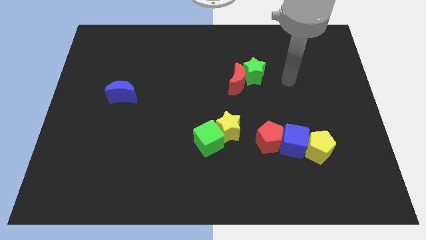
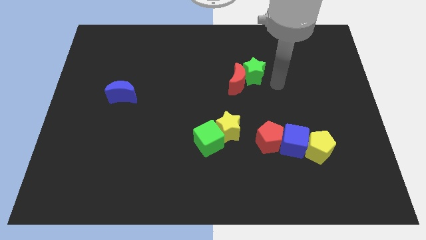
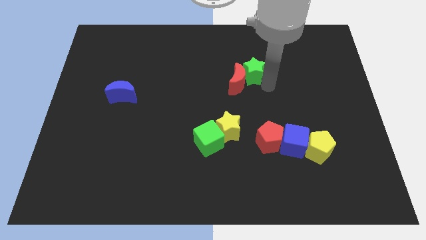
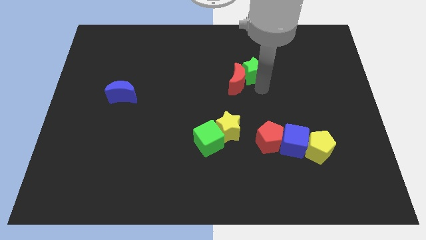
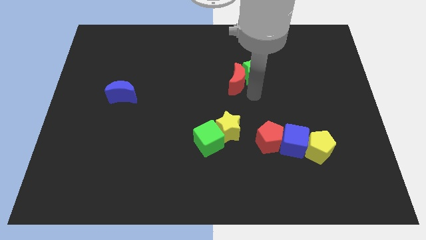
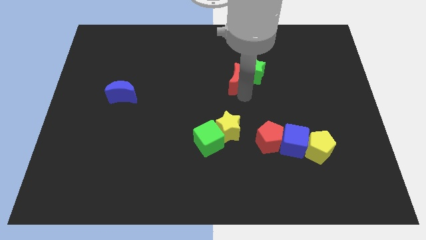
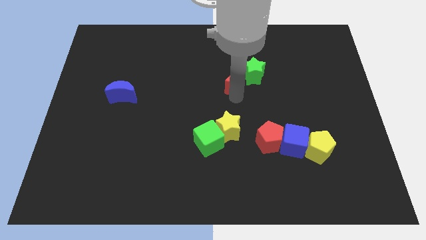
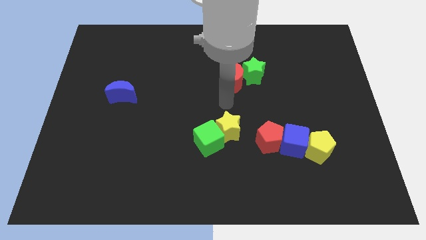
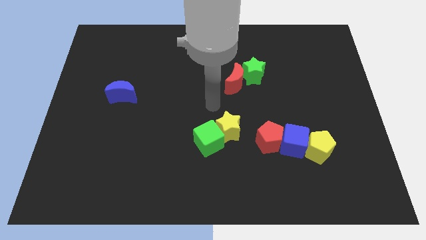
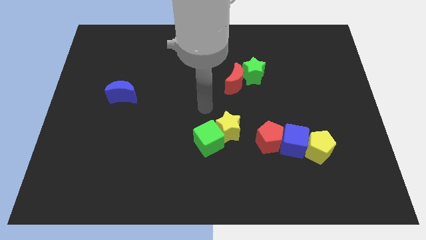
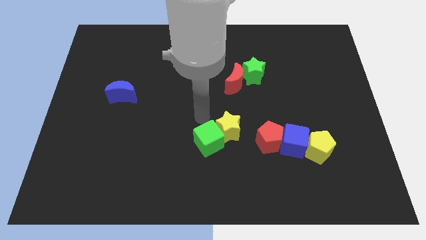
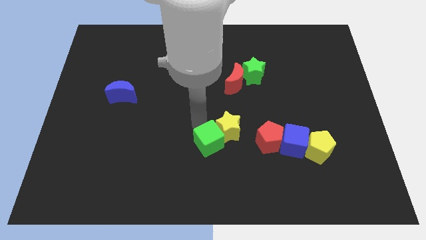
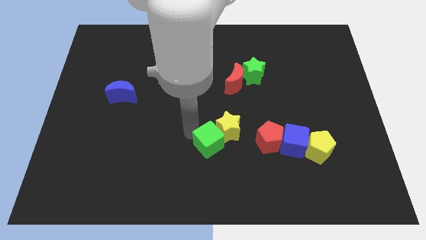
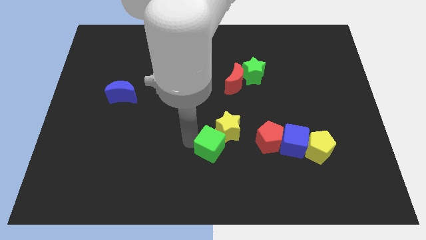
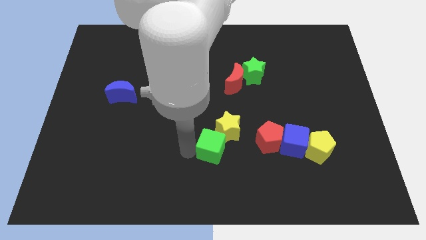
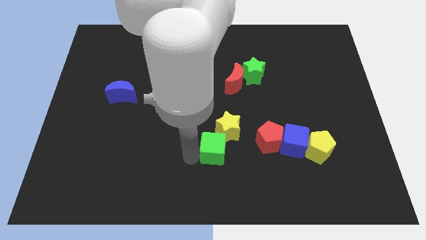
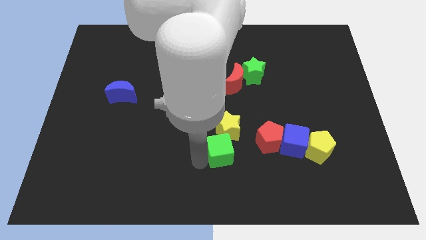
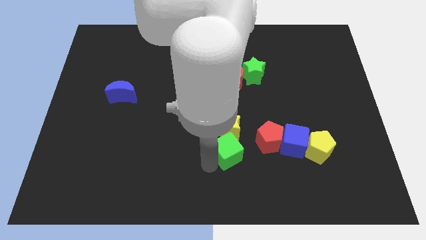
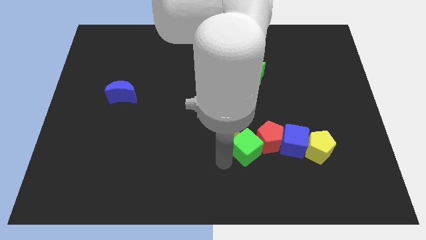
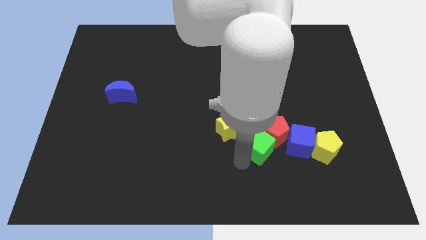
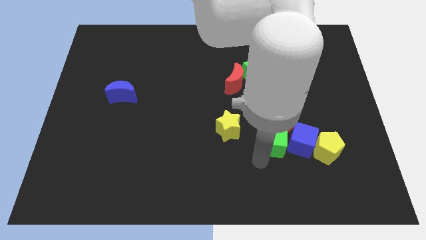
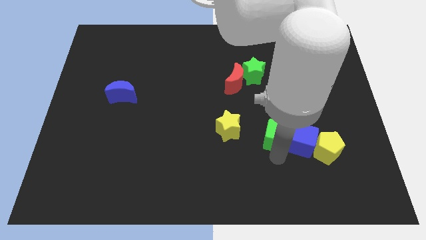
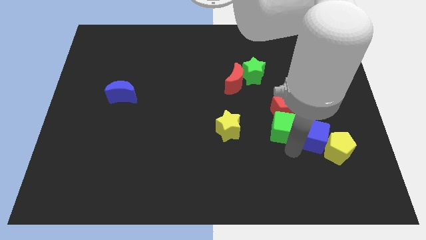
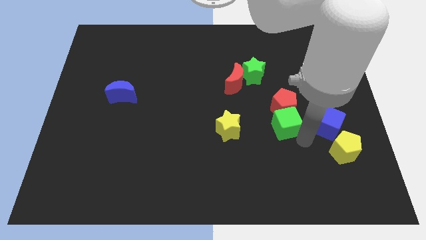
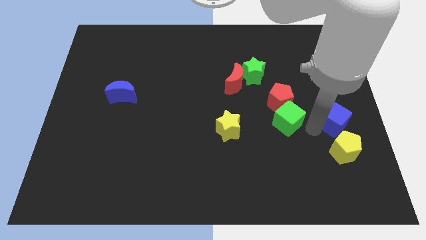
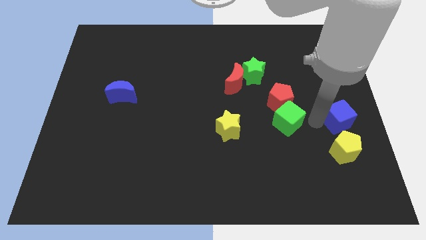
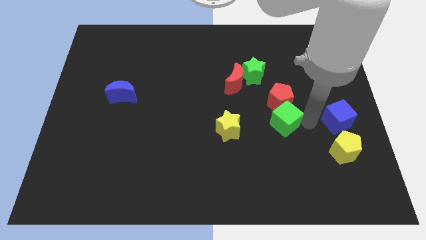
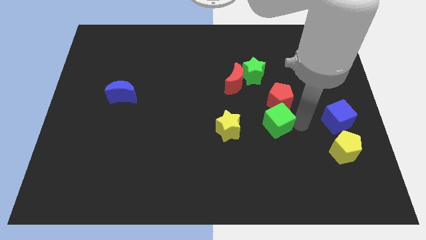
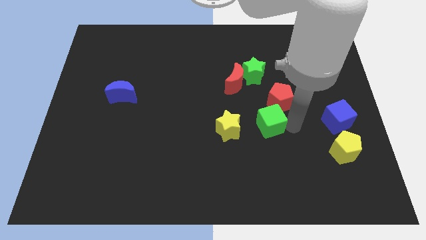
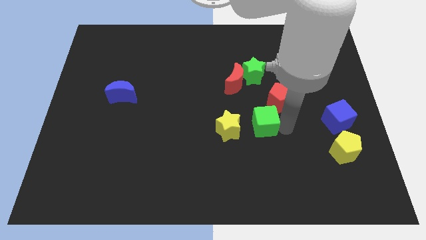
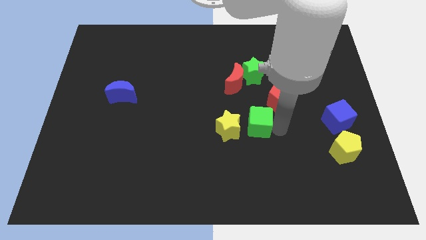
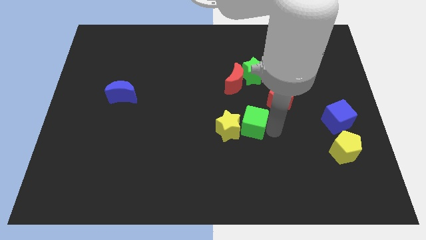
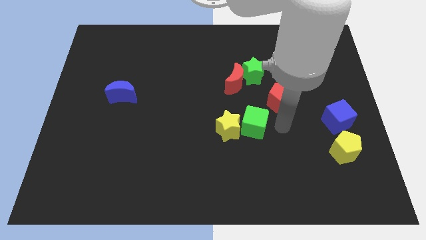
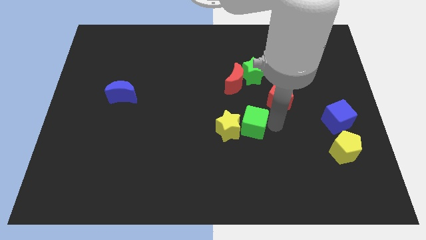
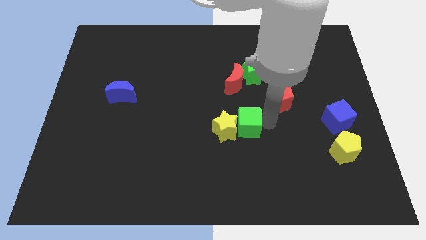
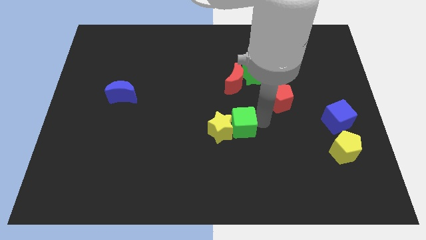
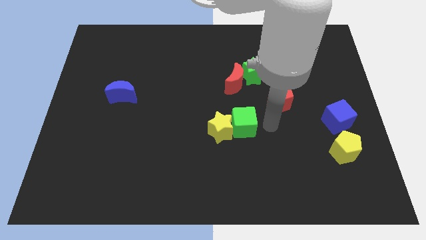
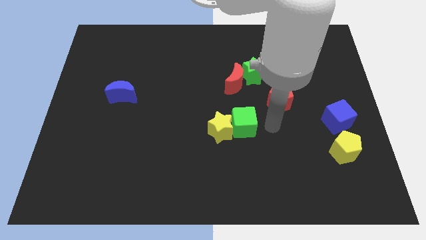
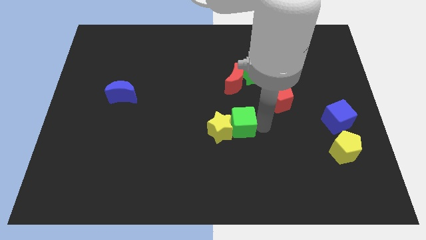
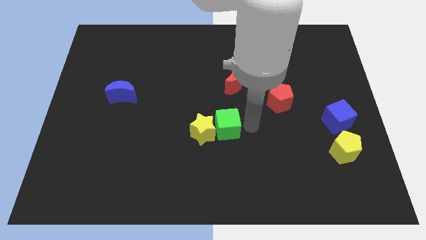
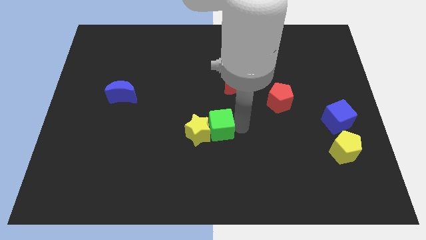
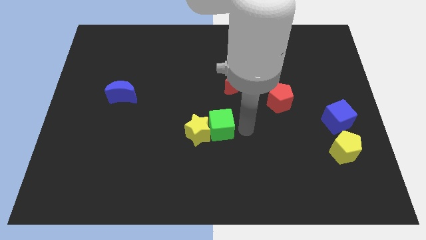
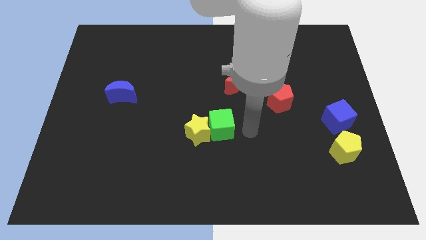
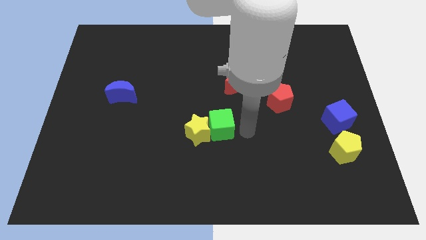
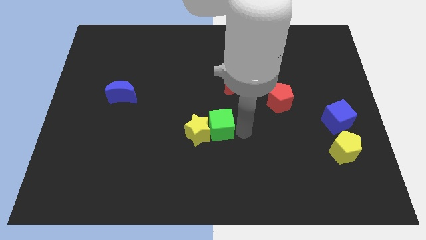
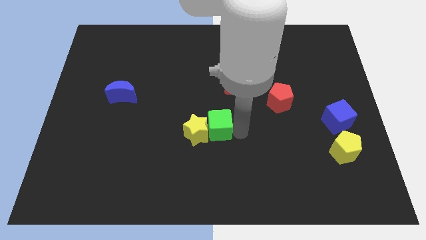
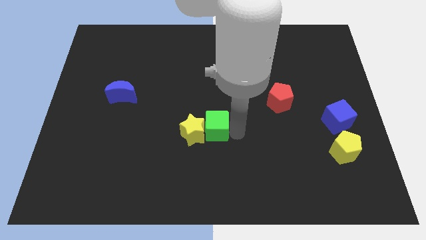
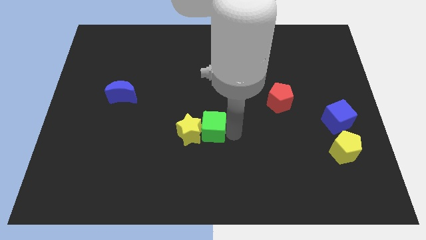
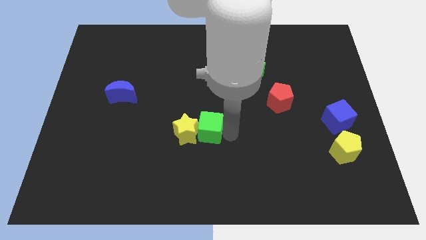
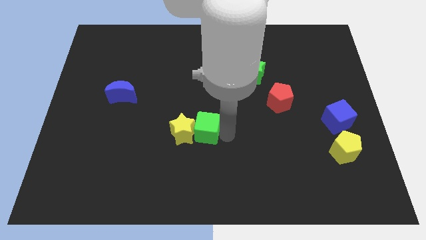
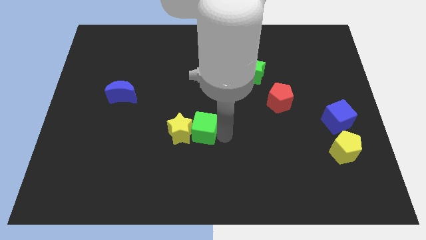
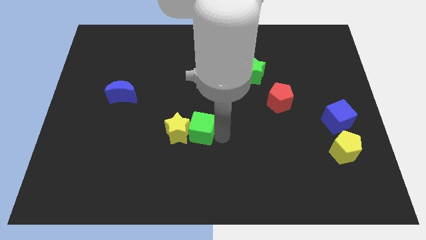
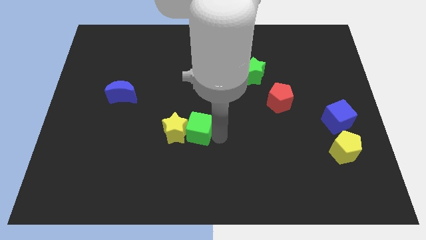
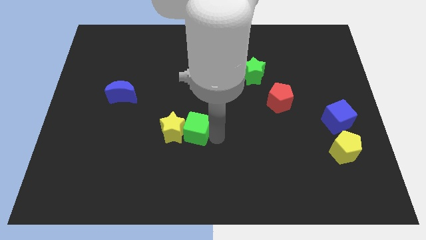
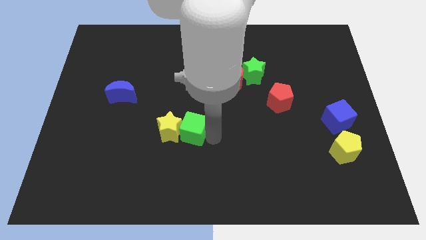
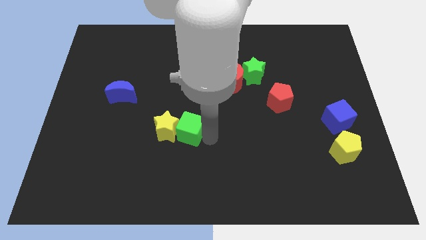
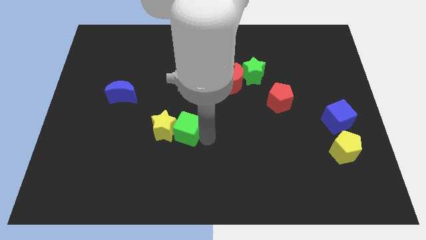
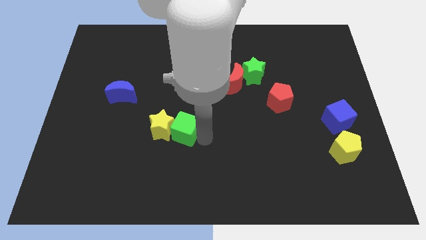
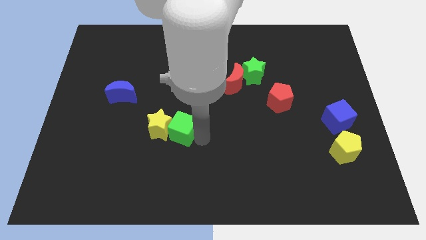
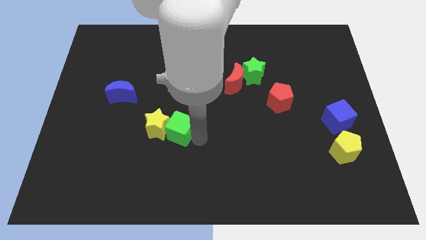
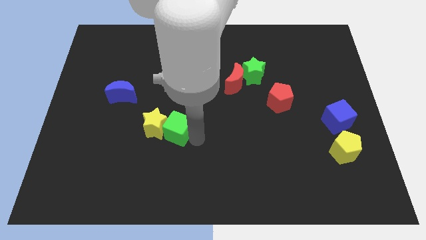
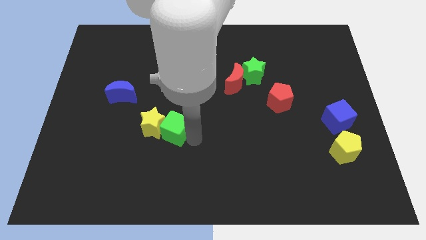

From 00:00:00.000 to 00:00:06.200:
move the green cube up and then left a little

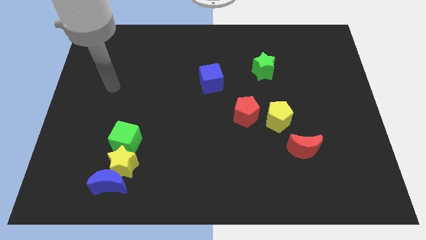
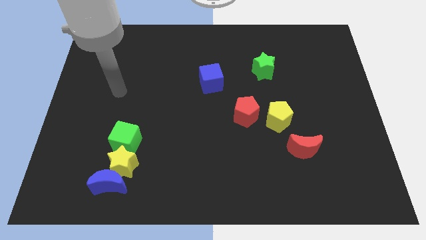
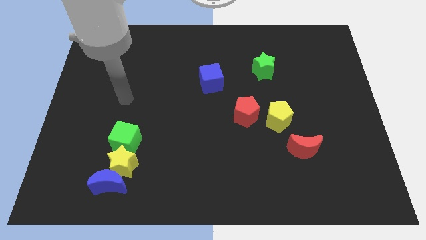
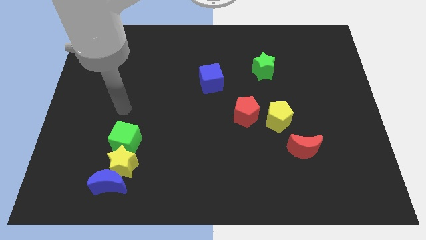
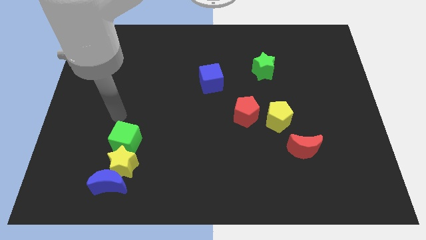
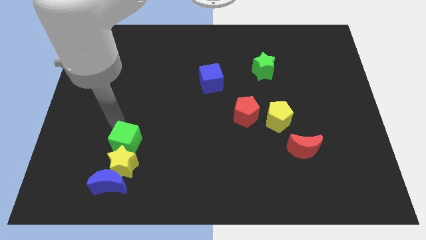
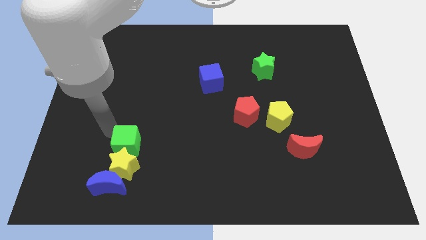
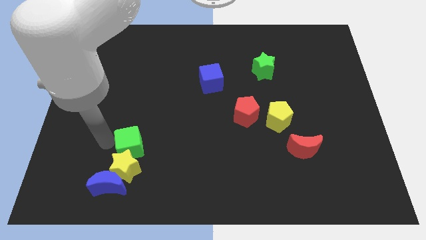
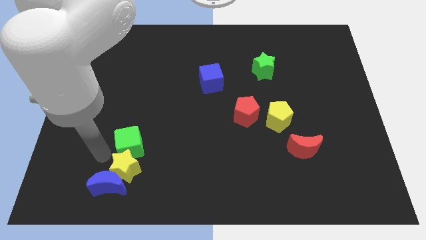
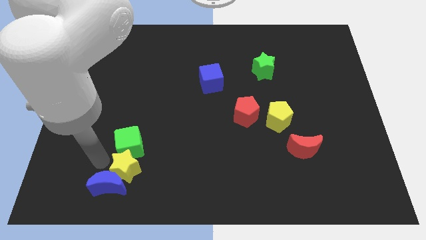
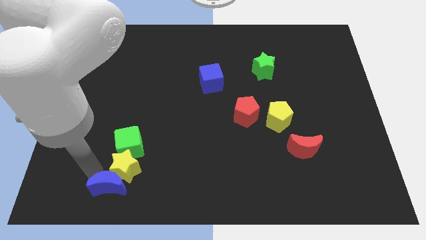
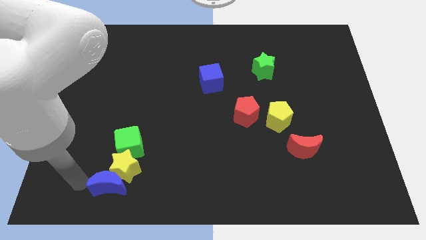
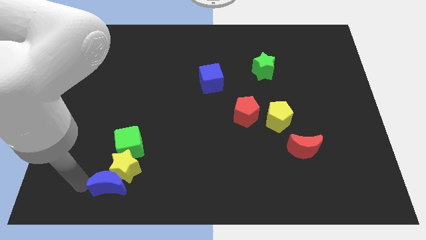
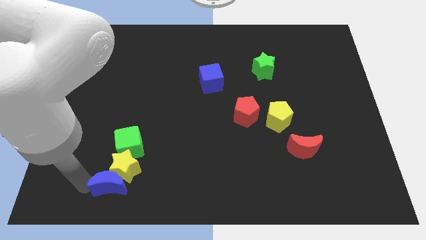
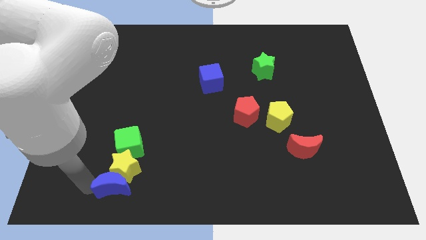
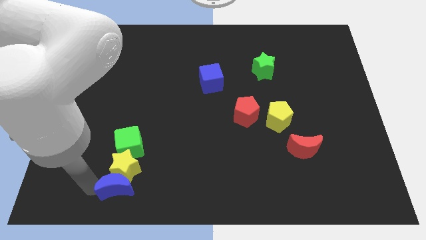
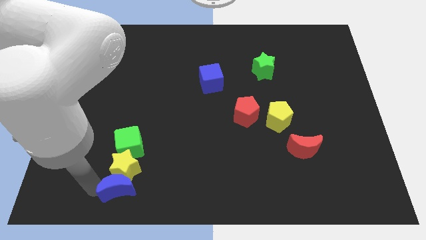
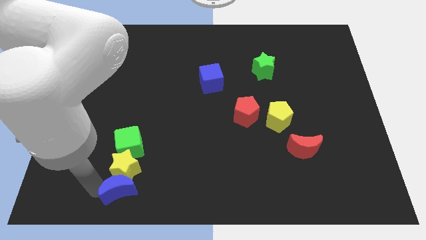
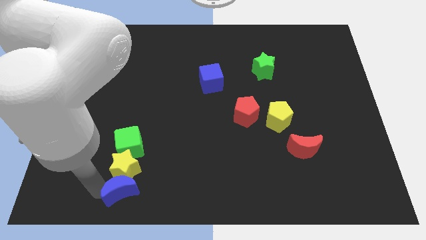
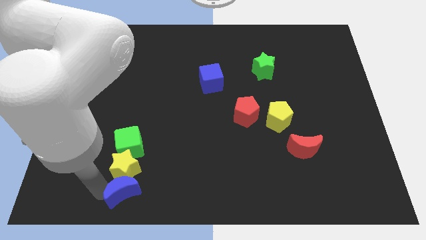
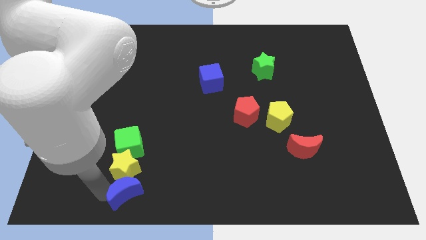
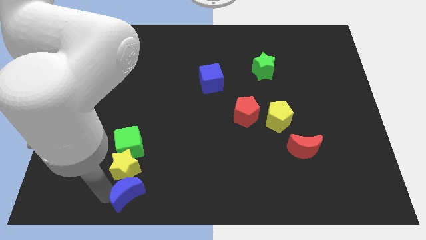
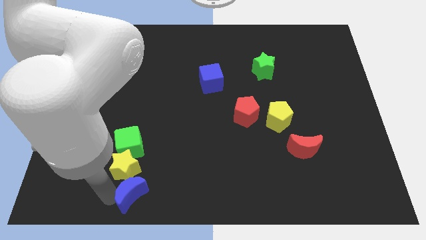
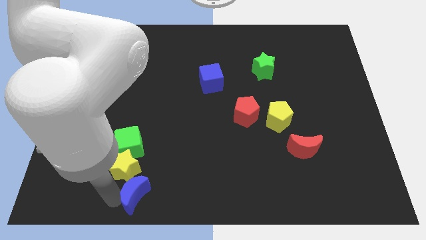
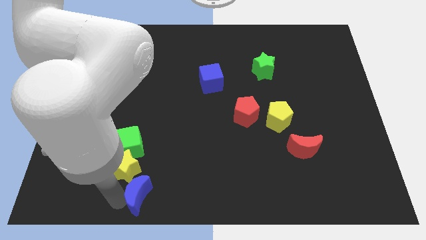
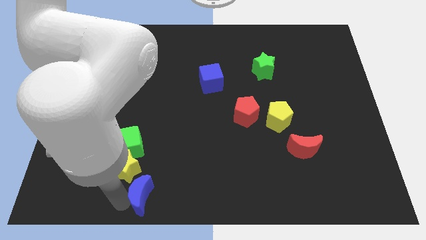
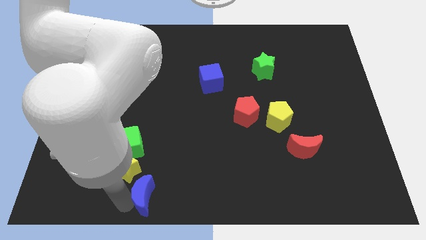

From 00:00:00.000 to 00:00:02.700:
move the blue moon right somewhat
